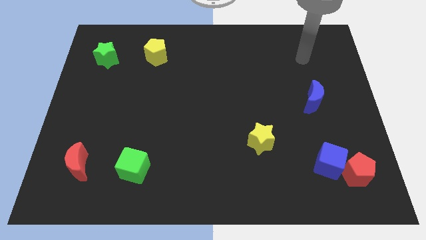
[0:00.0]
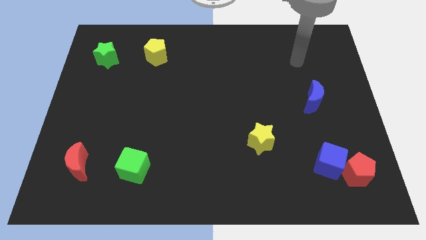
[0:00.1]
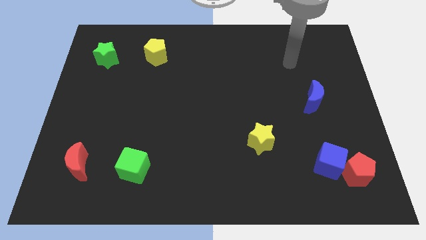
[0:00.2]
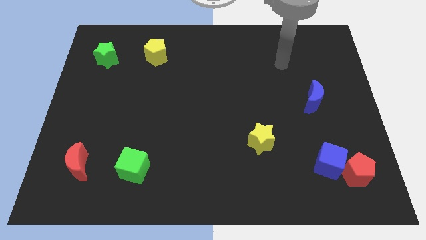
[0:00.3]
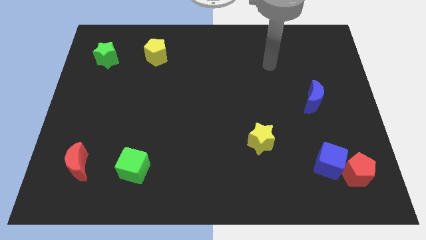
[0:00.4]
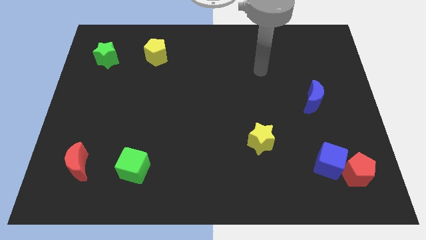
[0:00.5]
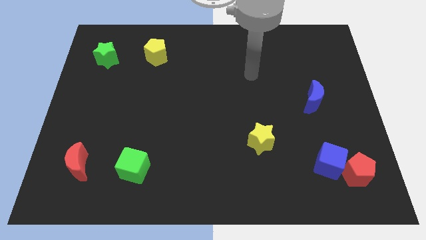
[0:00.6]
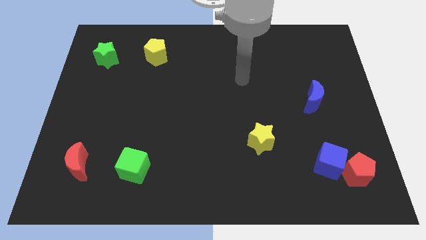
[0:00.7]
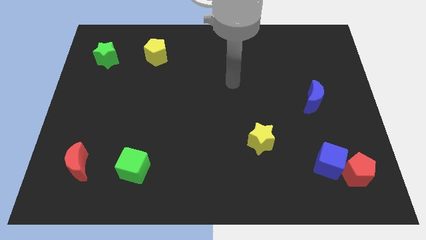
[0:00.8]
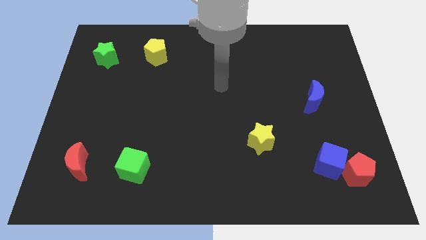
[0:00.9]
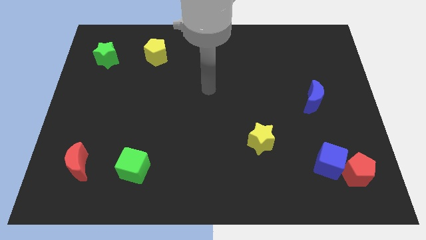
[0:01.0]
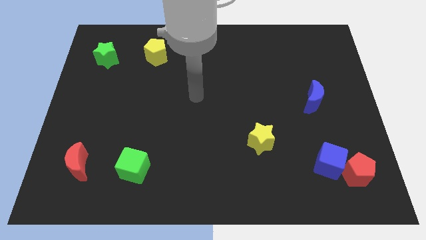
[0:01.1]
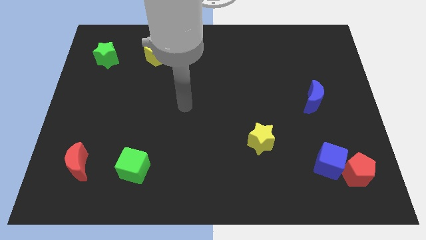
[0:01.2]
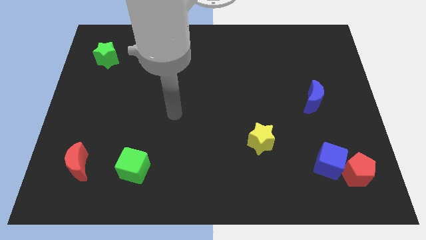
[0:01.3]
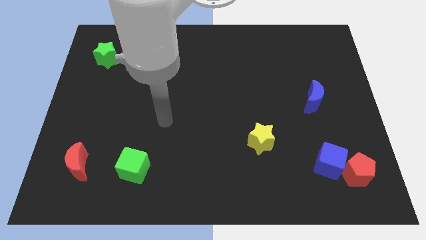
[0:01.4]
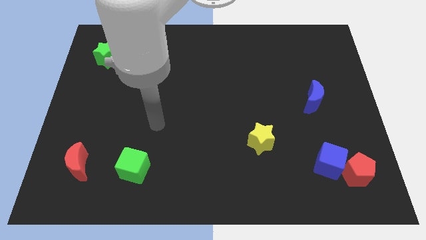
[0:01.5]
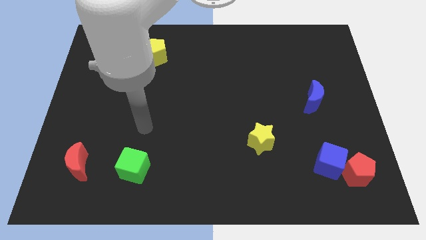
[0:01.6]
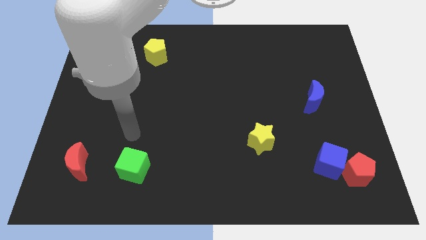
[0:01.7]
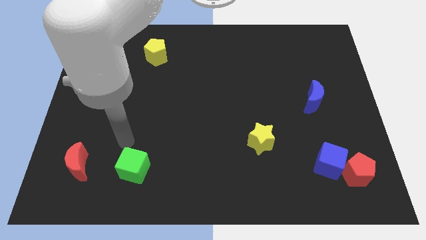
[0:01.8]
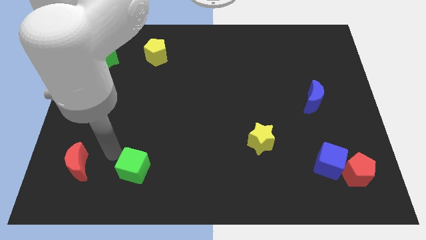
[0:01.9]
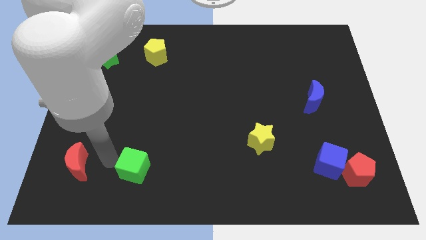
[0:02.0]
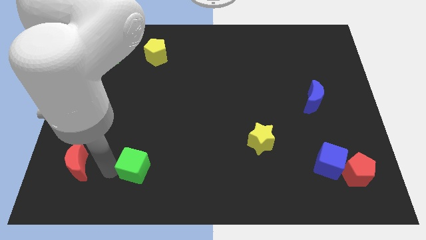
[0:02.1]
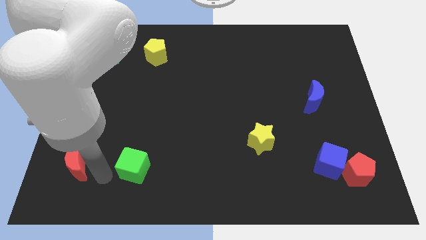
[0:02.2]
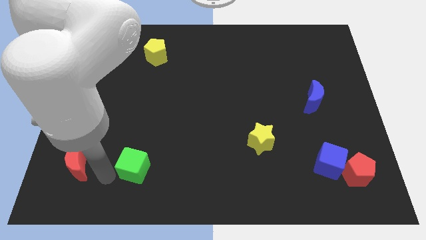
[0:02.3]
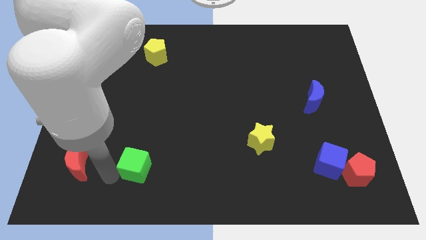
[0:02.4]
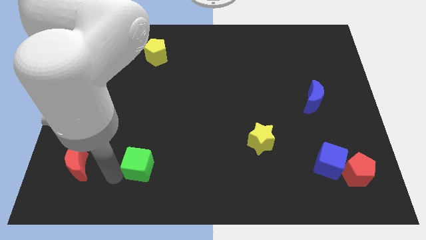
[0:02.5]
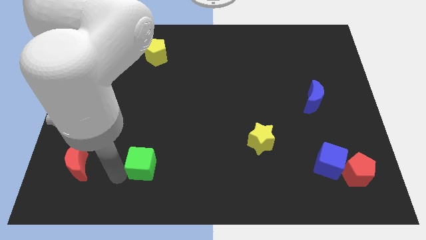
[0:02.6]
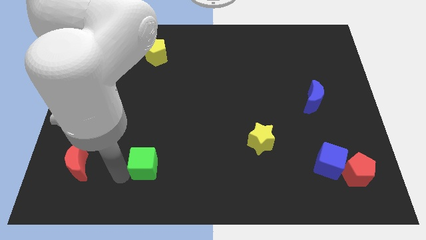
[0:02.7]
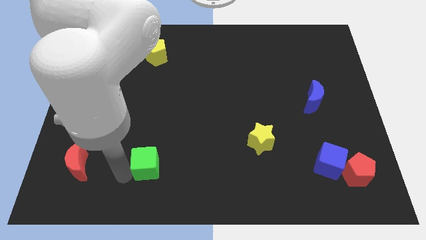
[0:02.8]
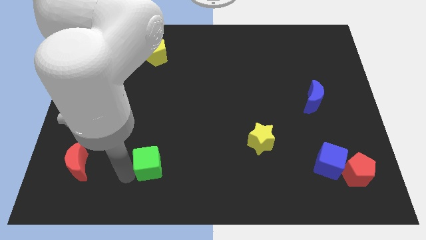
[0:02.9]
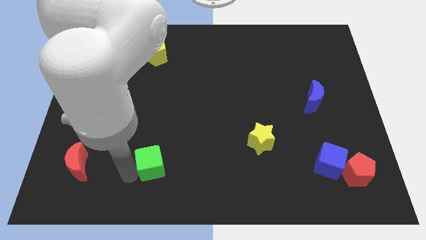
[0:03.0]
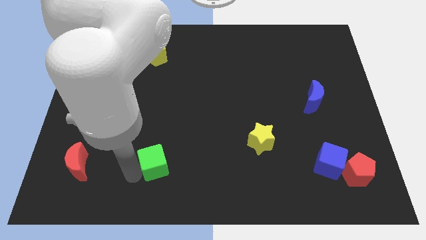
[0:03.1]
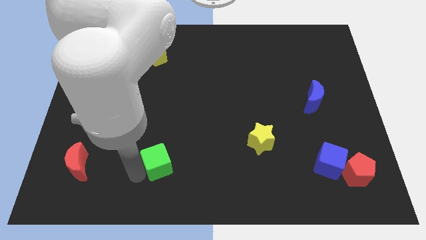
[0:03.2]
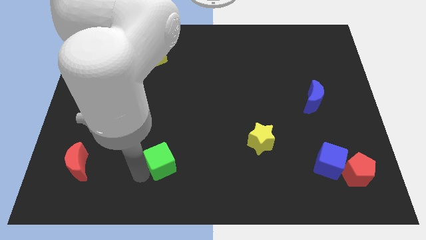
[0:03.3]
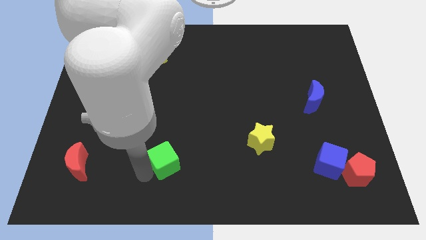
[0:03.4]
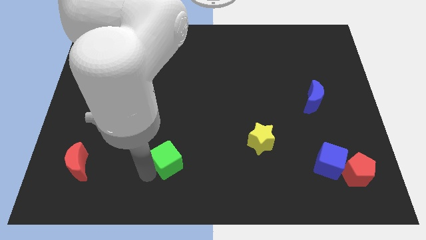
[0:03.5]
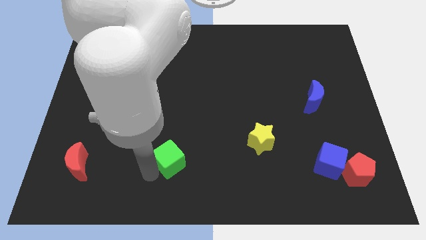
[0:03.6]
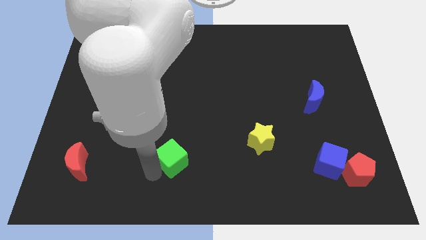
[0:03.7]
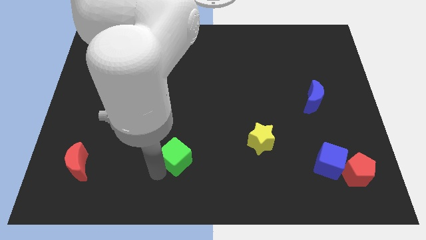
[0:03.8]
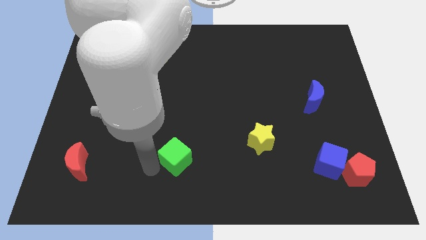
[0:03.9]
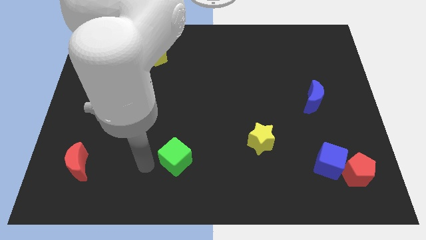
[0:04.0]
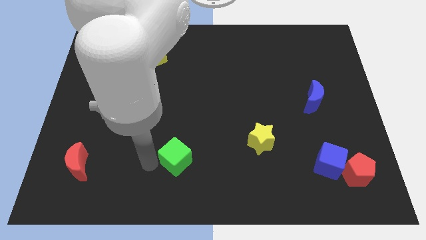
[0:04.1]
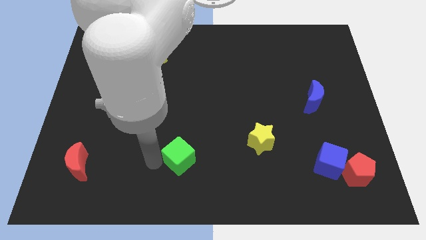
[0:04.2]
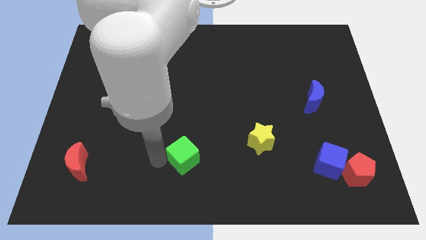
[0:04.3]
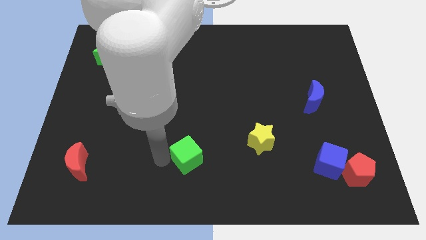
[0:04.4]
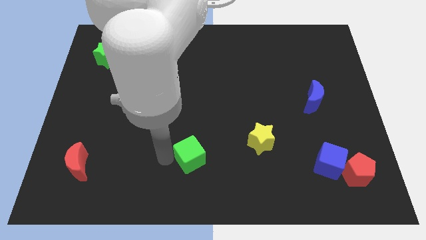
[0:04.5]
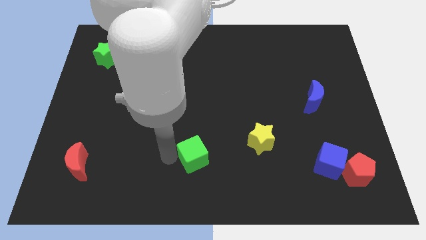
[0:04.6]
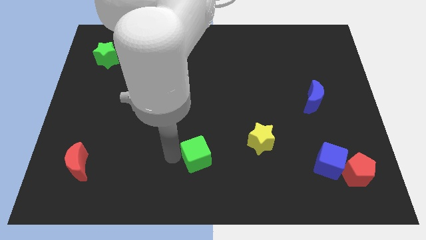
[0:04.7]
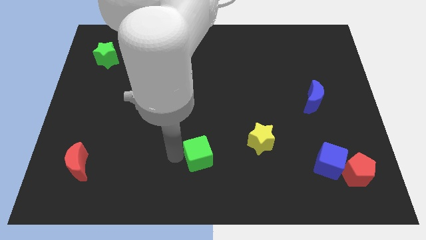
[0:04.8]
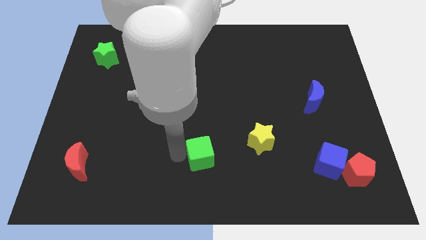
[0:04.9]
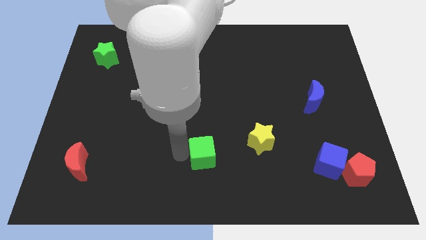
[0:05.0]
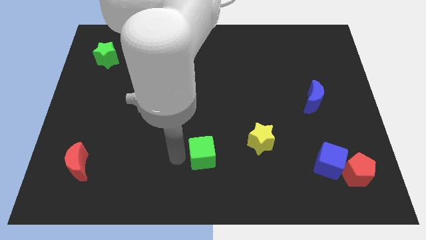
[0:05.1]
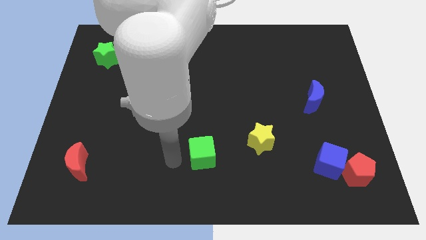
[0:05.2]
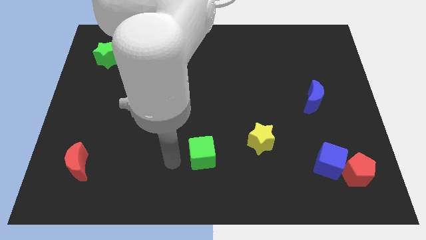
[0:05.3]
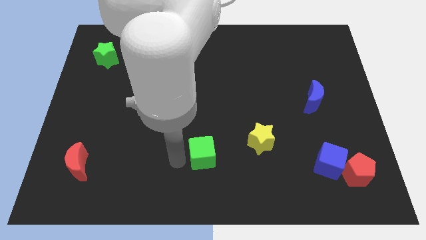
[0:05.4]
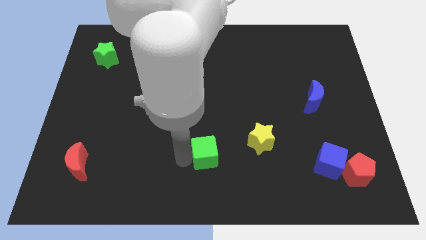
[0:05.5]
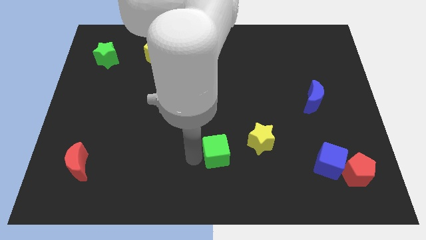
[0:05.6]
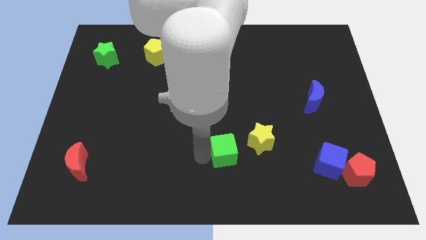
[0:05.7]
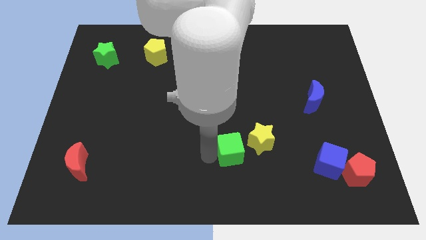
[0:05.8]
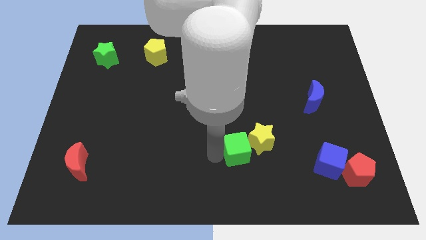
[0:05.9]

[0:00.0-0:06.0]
put the green cube to the yellow star

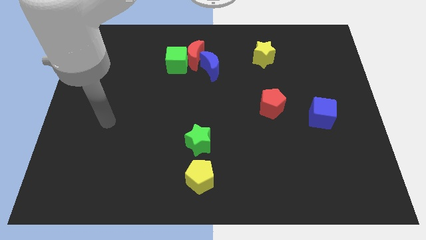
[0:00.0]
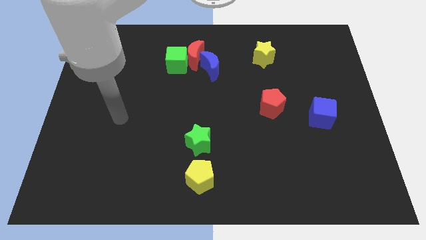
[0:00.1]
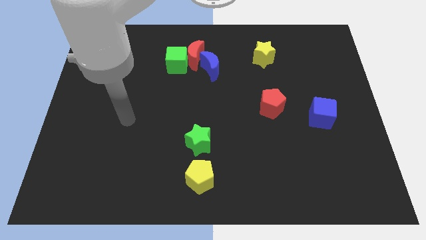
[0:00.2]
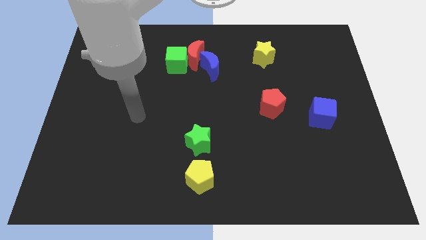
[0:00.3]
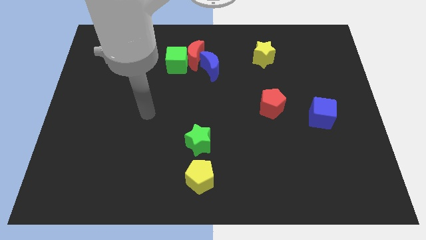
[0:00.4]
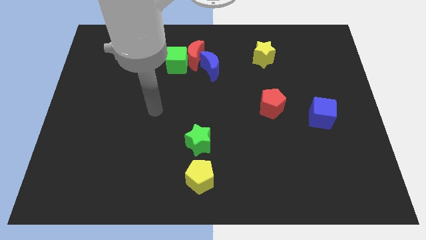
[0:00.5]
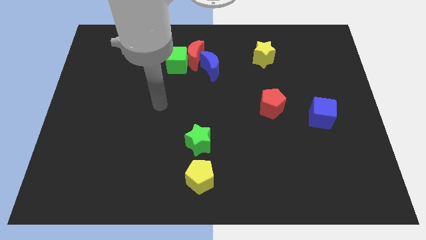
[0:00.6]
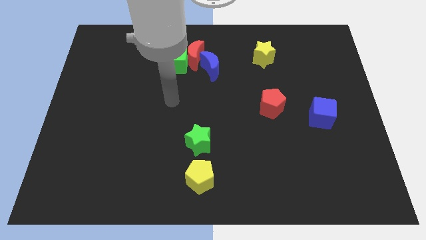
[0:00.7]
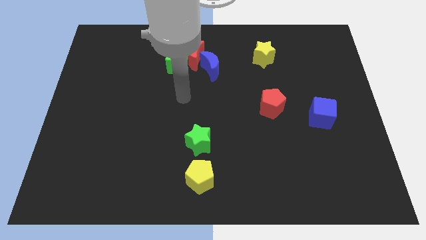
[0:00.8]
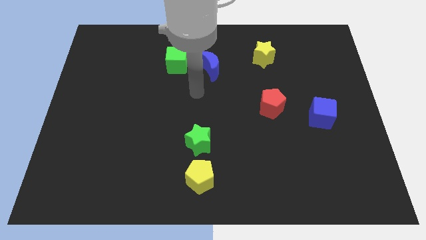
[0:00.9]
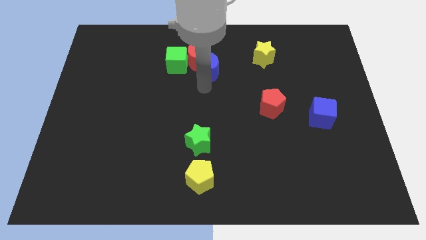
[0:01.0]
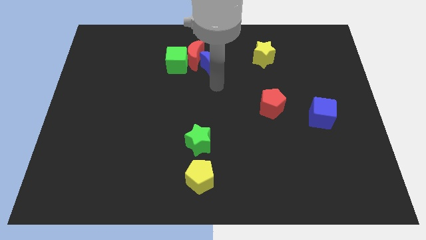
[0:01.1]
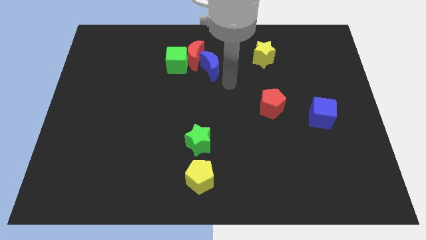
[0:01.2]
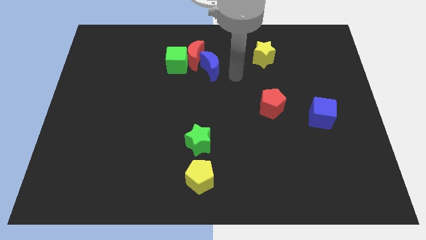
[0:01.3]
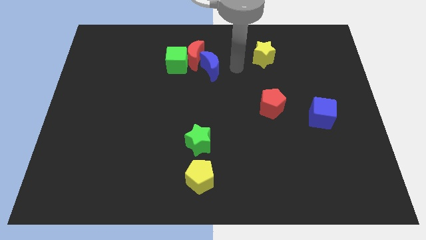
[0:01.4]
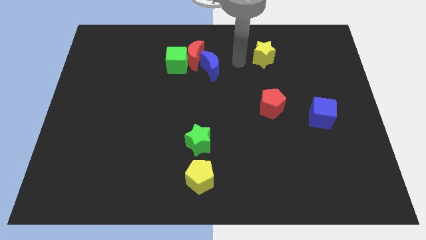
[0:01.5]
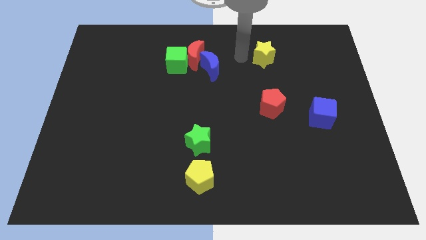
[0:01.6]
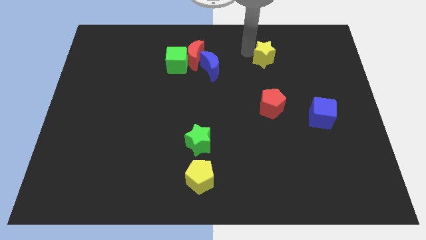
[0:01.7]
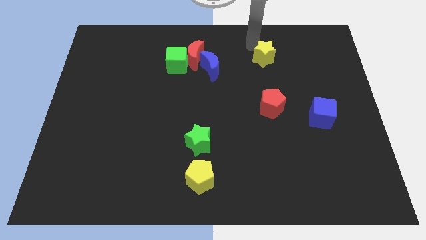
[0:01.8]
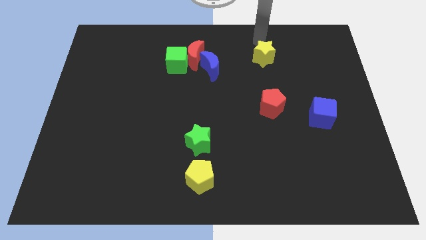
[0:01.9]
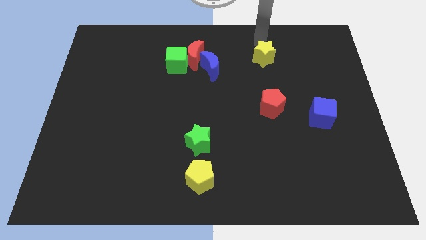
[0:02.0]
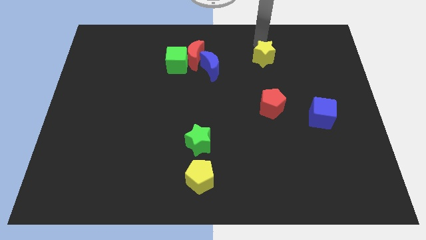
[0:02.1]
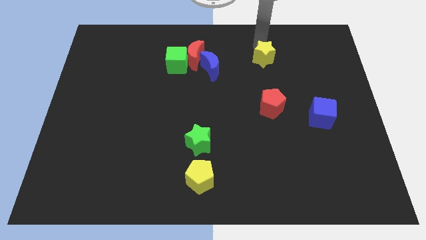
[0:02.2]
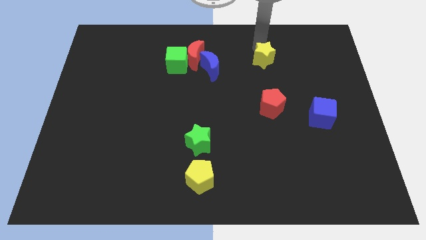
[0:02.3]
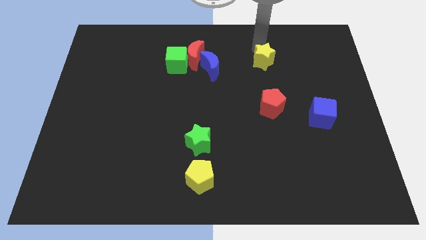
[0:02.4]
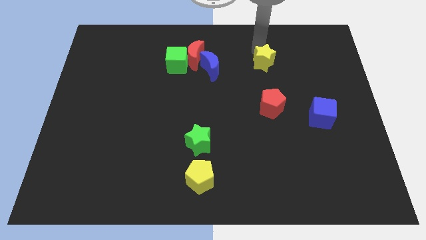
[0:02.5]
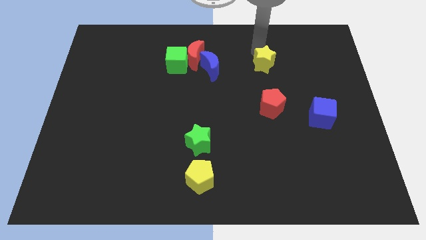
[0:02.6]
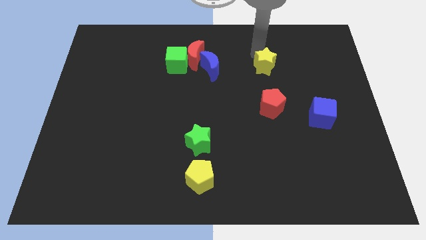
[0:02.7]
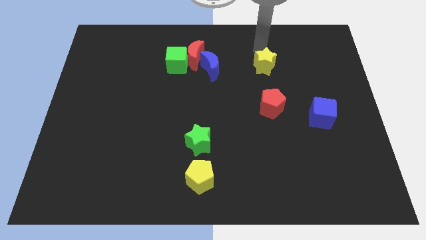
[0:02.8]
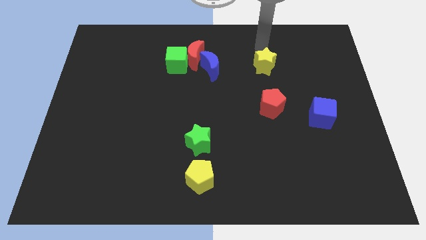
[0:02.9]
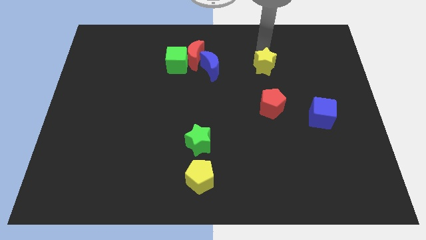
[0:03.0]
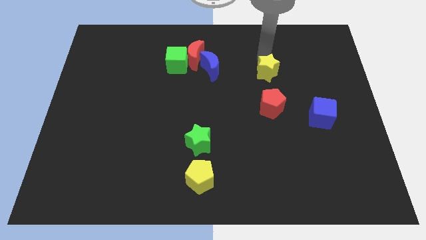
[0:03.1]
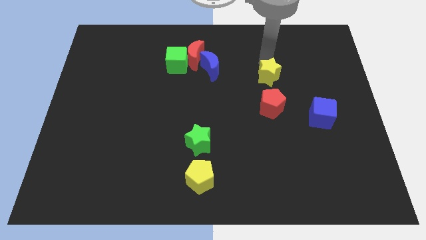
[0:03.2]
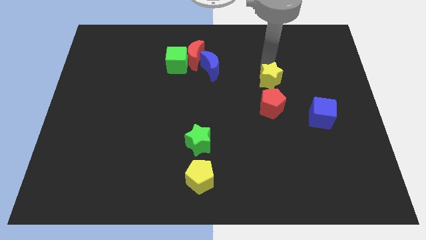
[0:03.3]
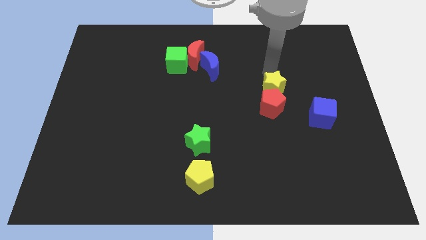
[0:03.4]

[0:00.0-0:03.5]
put the yellow star next to the red pentagon
